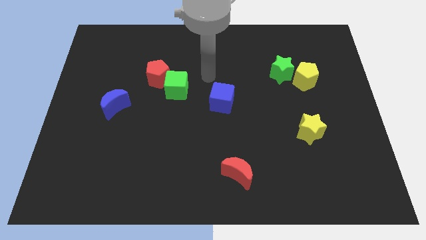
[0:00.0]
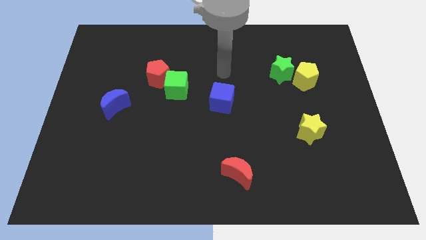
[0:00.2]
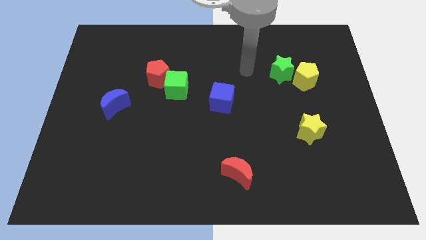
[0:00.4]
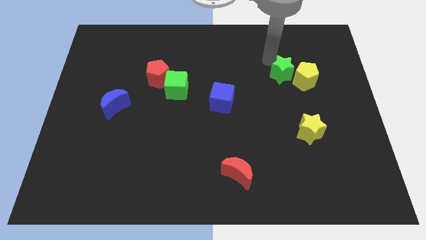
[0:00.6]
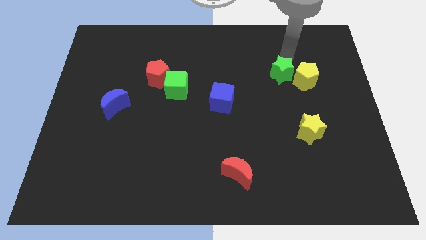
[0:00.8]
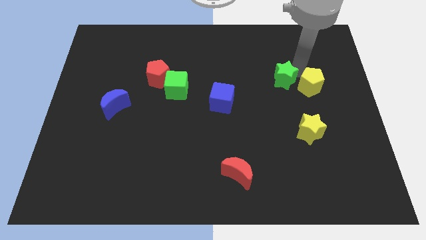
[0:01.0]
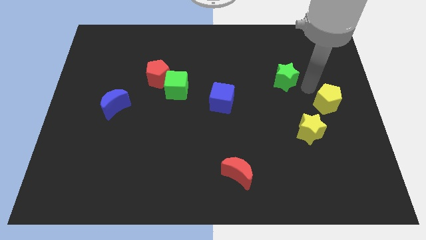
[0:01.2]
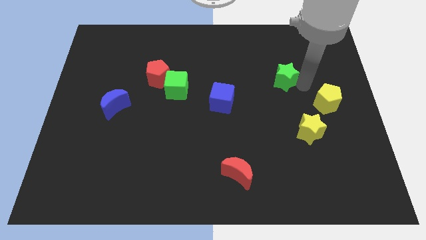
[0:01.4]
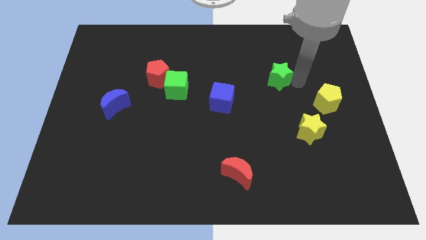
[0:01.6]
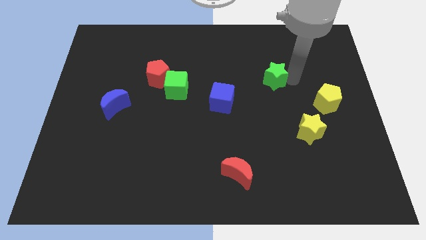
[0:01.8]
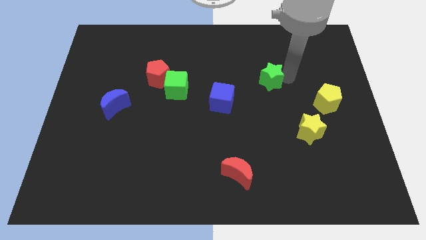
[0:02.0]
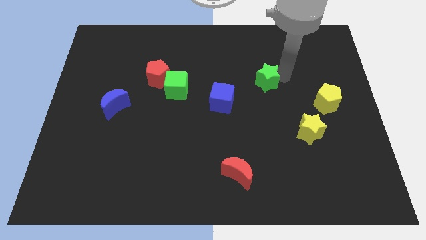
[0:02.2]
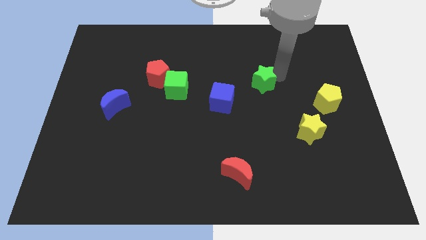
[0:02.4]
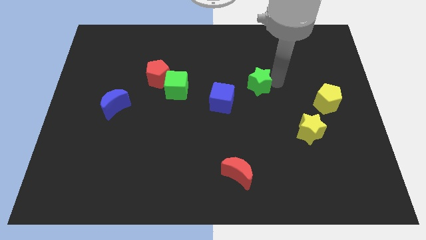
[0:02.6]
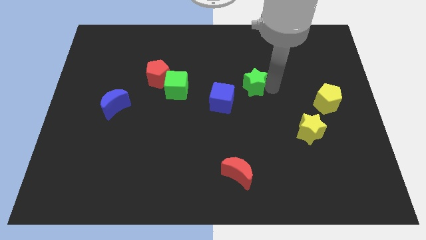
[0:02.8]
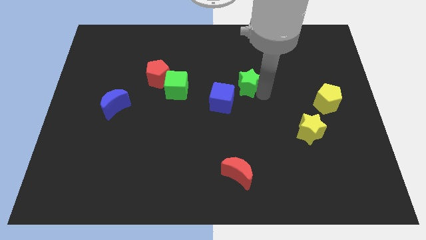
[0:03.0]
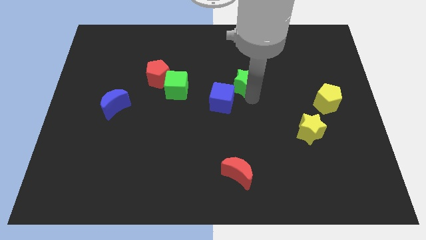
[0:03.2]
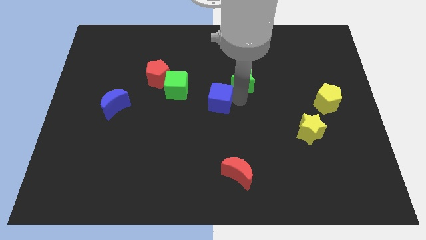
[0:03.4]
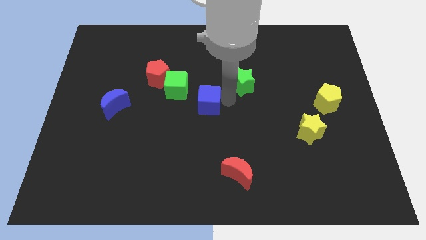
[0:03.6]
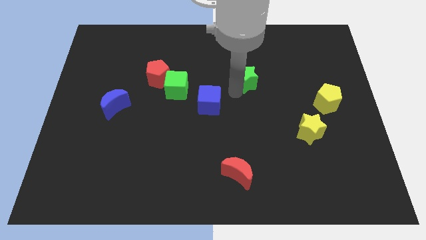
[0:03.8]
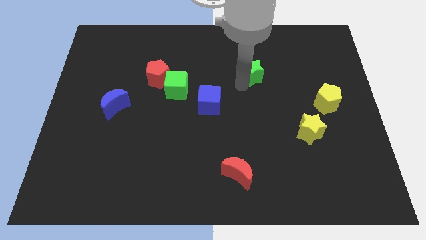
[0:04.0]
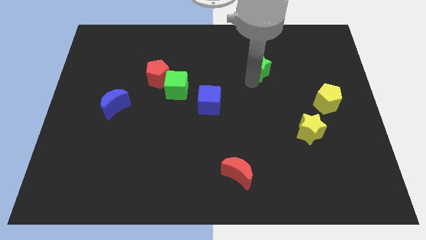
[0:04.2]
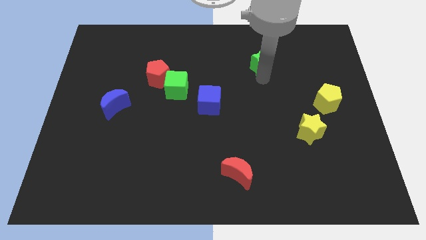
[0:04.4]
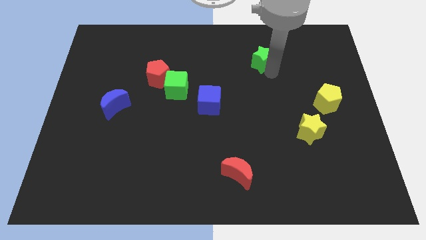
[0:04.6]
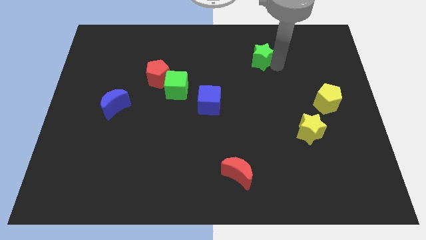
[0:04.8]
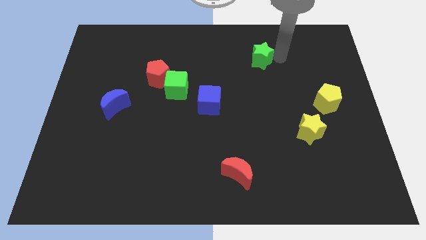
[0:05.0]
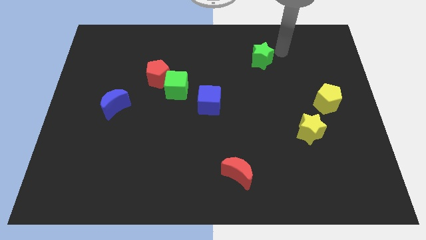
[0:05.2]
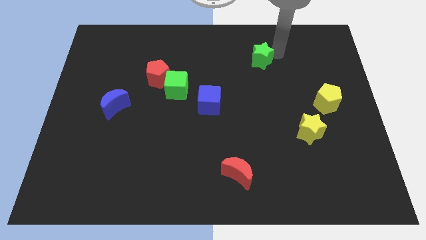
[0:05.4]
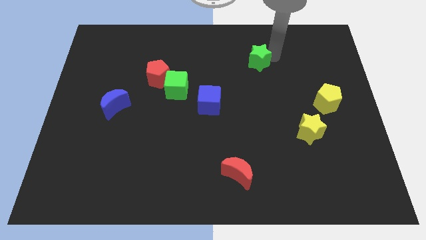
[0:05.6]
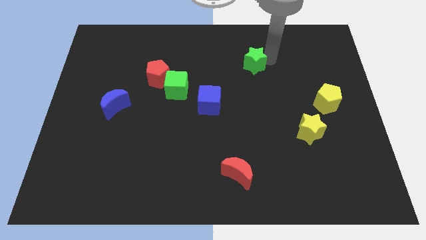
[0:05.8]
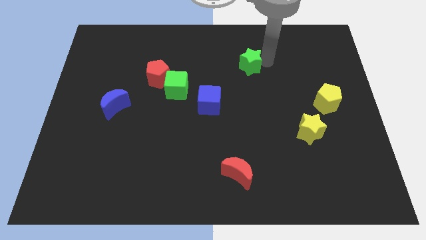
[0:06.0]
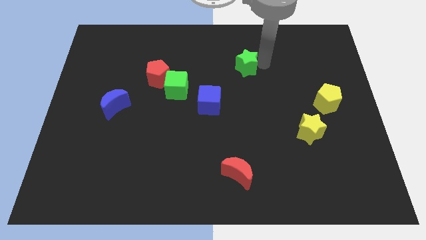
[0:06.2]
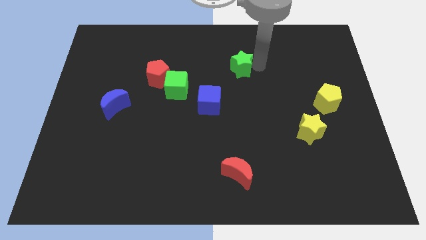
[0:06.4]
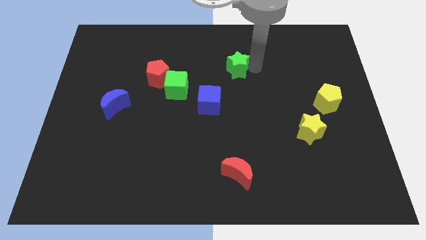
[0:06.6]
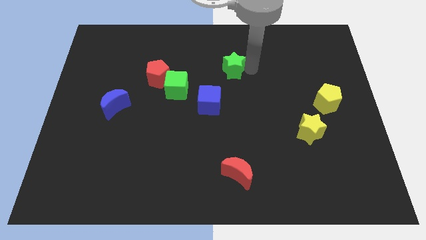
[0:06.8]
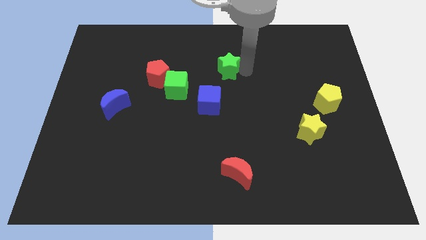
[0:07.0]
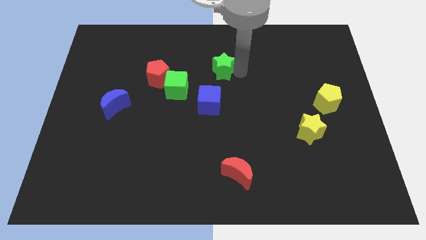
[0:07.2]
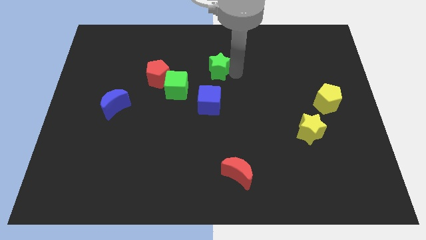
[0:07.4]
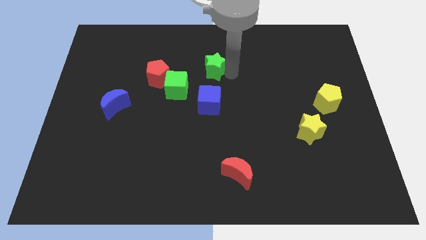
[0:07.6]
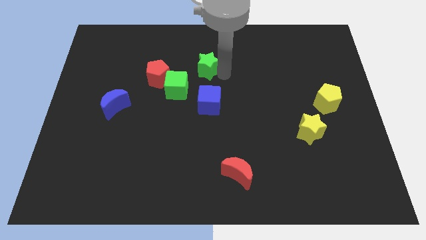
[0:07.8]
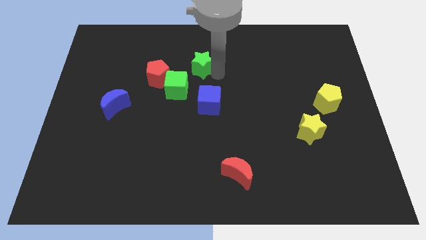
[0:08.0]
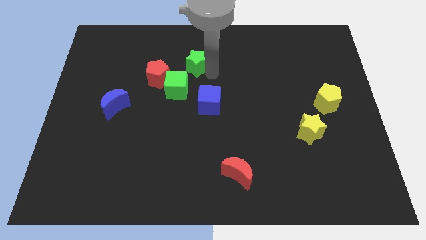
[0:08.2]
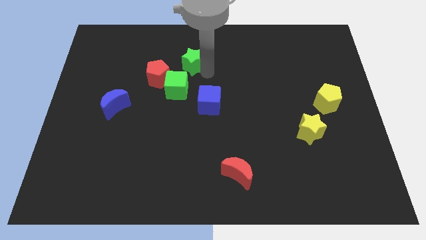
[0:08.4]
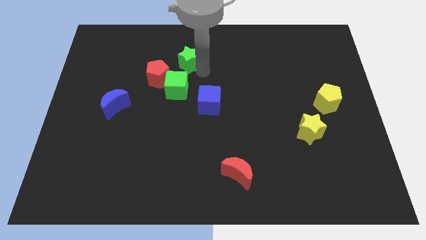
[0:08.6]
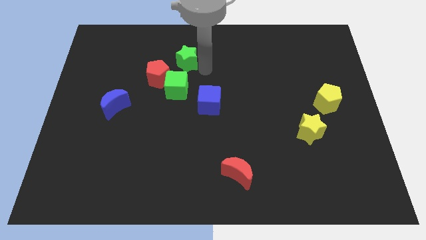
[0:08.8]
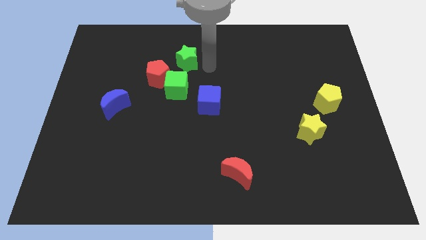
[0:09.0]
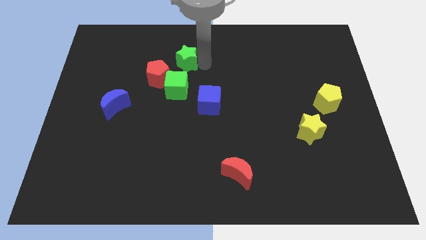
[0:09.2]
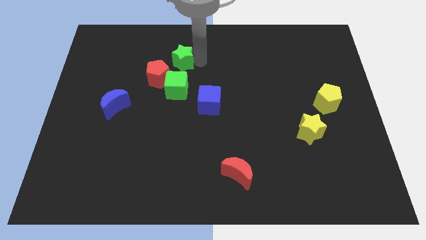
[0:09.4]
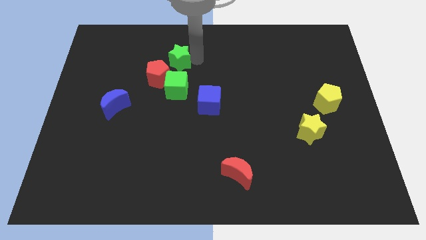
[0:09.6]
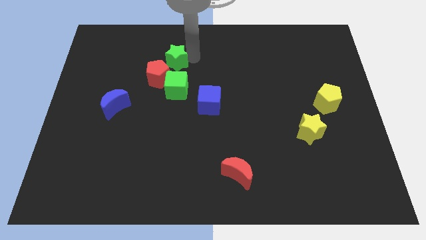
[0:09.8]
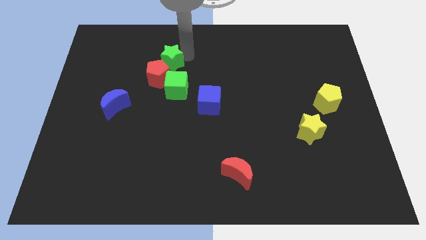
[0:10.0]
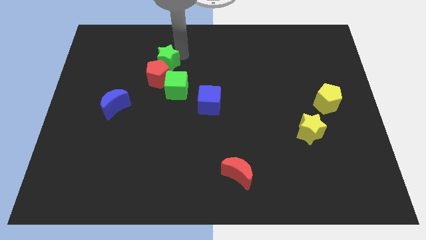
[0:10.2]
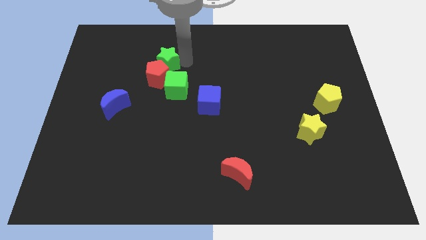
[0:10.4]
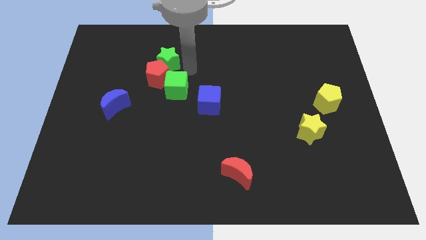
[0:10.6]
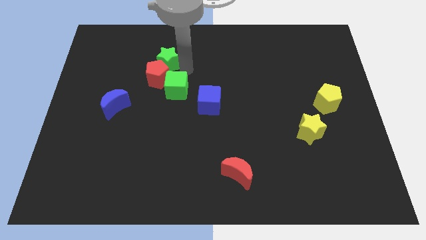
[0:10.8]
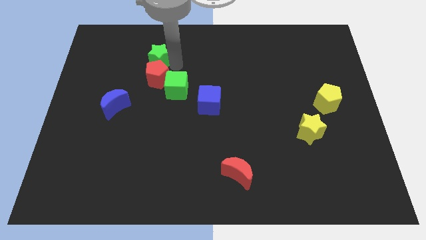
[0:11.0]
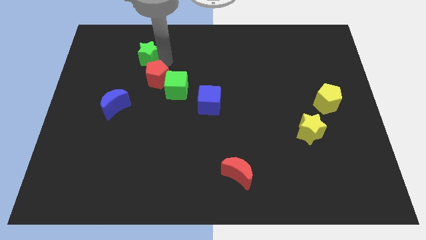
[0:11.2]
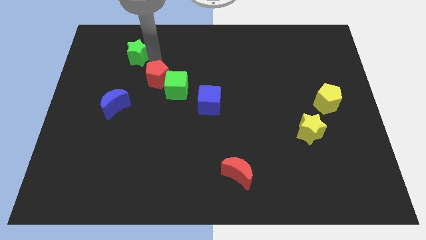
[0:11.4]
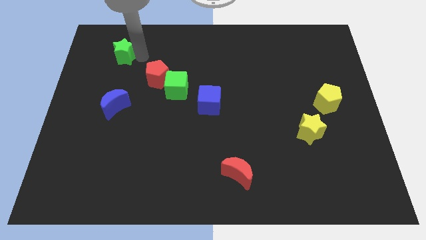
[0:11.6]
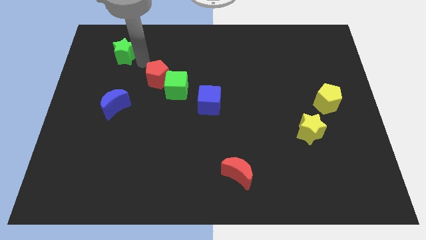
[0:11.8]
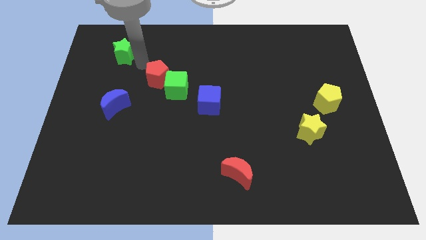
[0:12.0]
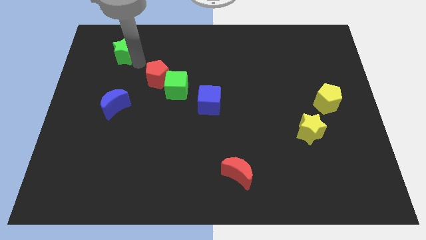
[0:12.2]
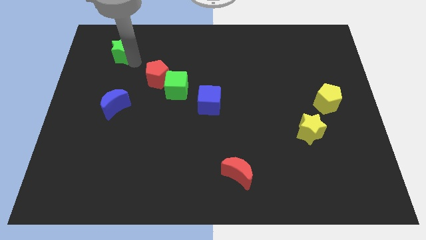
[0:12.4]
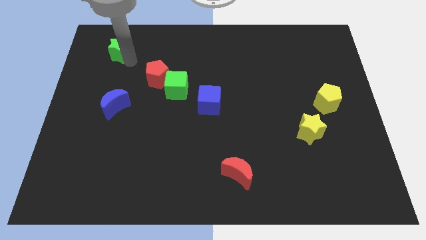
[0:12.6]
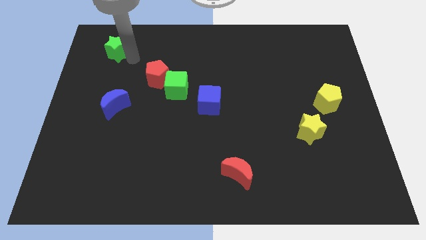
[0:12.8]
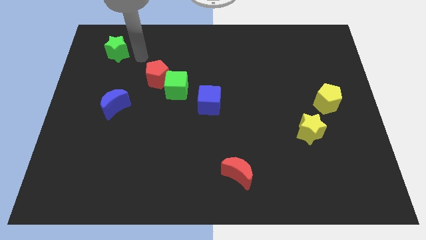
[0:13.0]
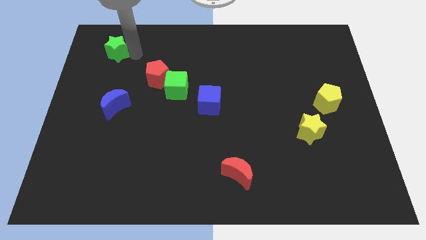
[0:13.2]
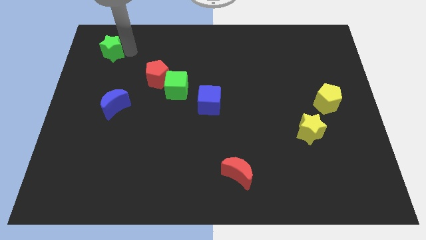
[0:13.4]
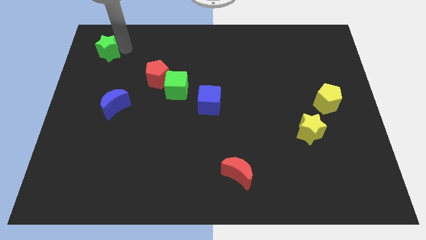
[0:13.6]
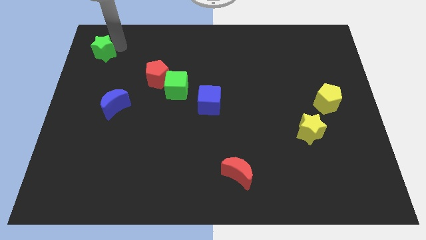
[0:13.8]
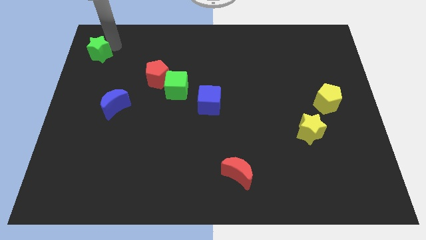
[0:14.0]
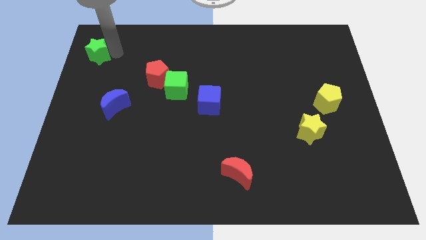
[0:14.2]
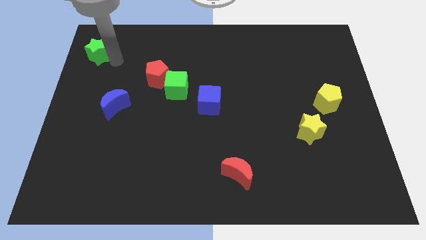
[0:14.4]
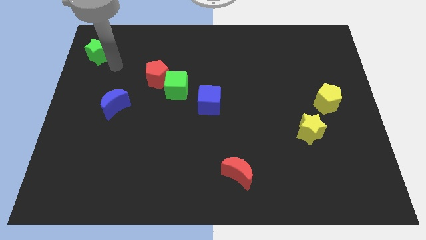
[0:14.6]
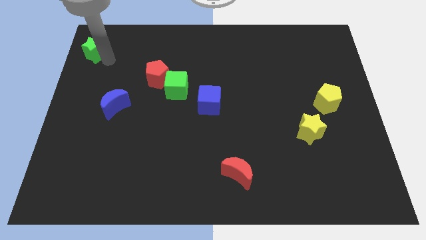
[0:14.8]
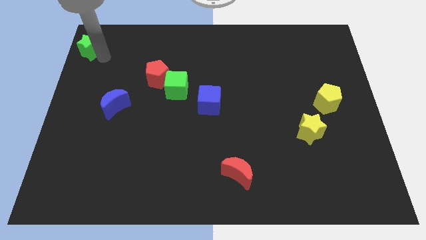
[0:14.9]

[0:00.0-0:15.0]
put the green star to the top left of the board
